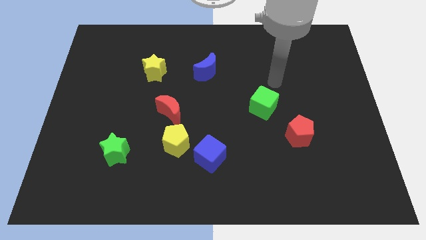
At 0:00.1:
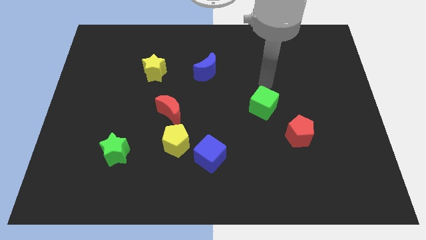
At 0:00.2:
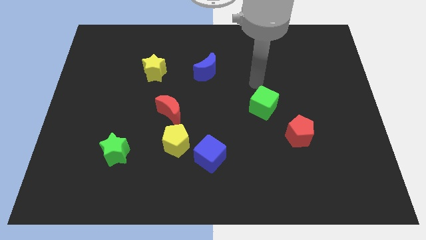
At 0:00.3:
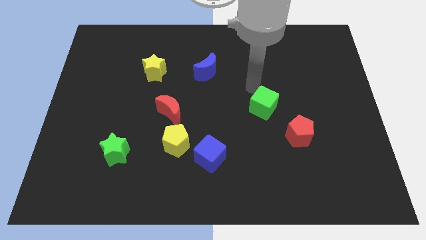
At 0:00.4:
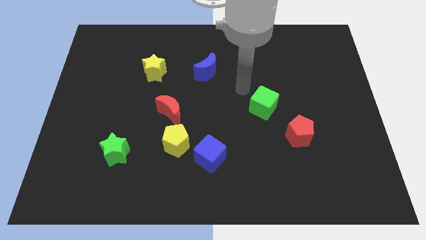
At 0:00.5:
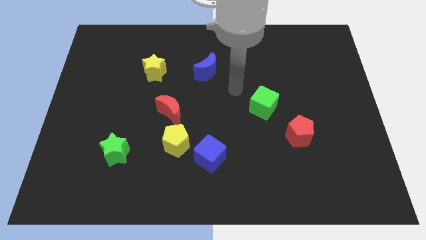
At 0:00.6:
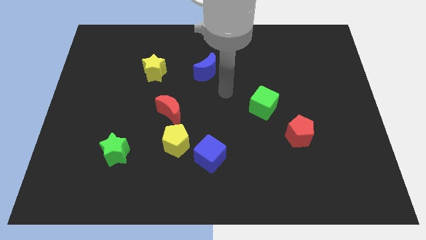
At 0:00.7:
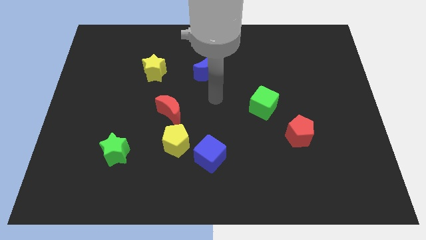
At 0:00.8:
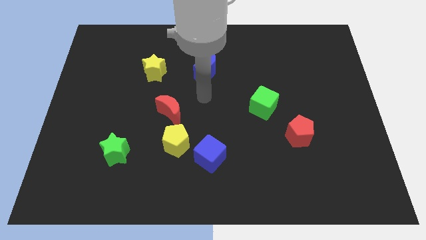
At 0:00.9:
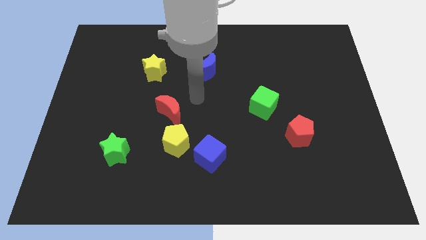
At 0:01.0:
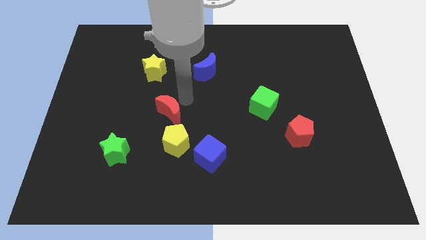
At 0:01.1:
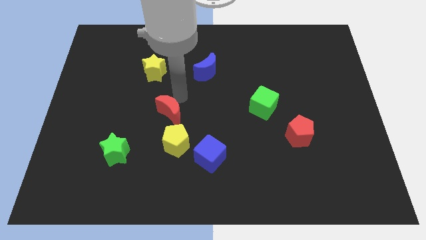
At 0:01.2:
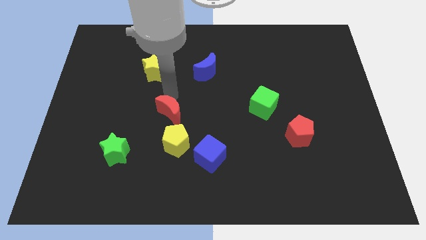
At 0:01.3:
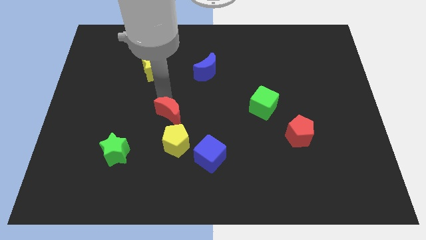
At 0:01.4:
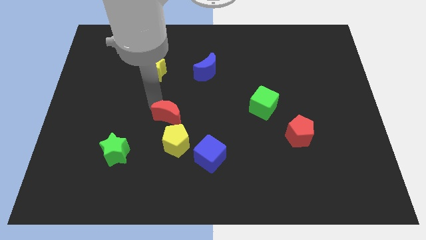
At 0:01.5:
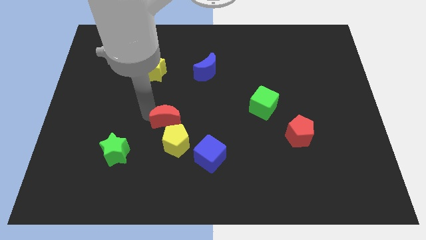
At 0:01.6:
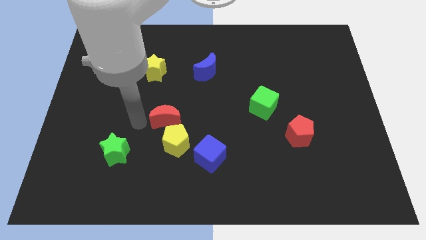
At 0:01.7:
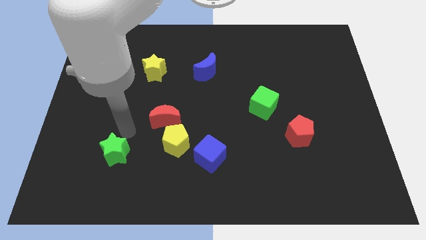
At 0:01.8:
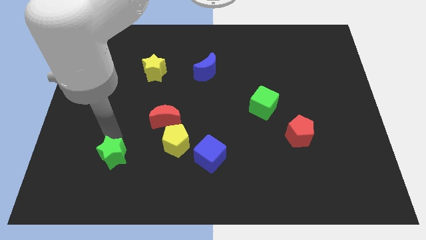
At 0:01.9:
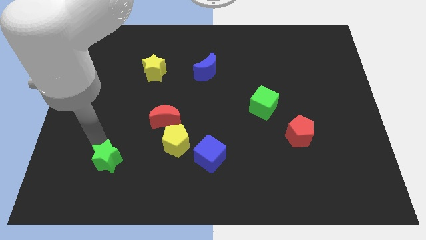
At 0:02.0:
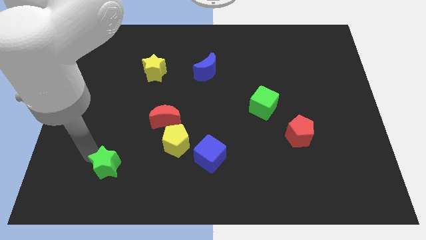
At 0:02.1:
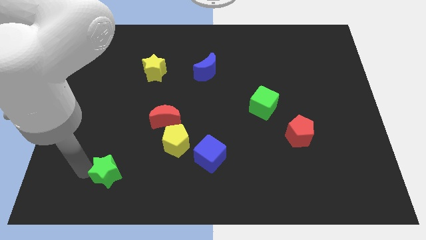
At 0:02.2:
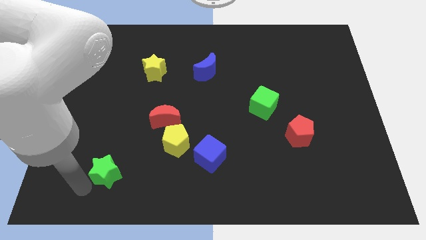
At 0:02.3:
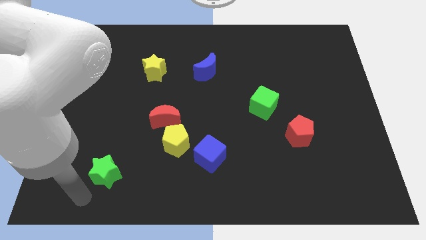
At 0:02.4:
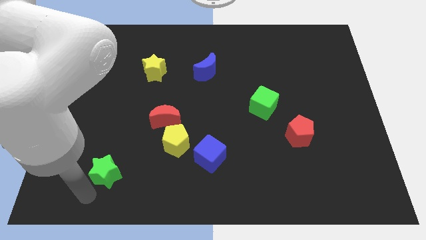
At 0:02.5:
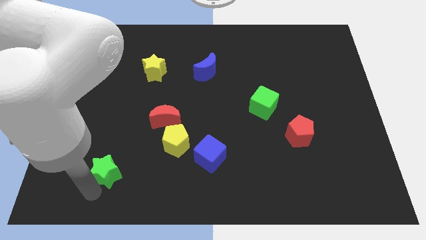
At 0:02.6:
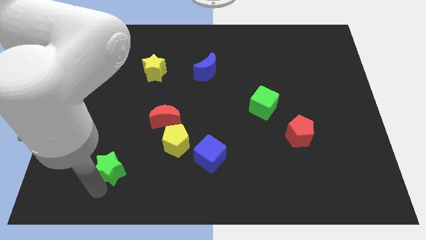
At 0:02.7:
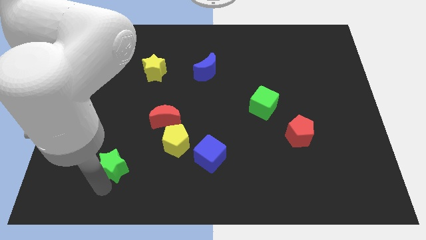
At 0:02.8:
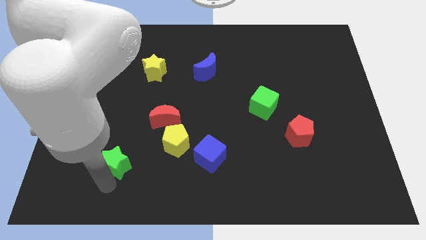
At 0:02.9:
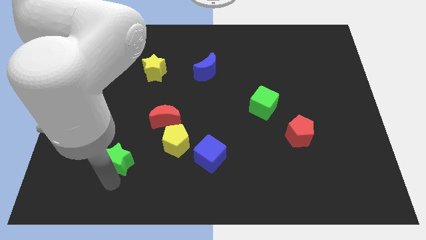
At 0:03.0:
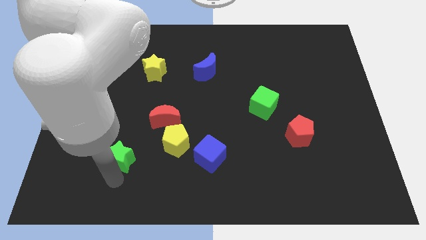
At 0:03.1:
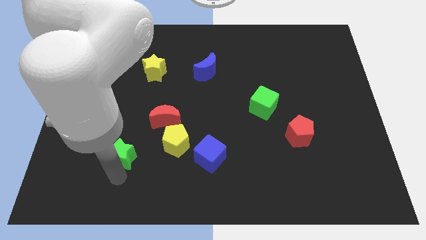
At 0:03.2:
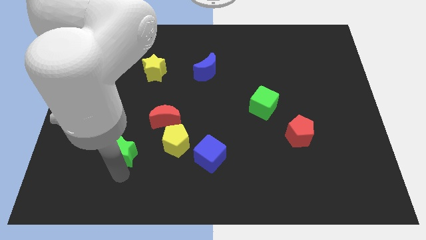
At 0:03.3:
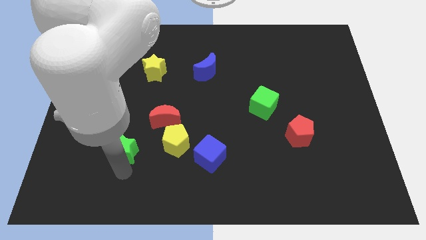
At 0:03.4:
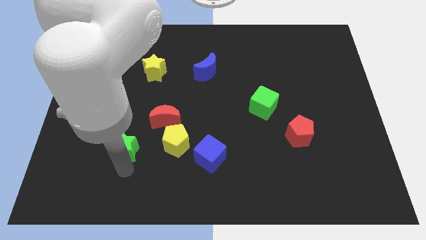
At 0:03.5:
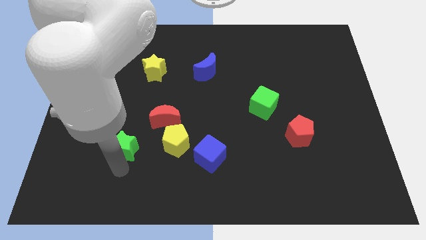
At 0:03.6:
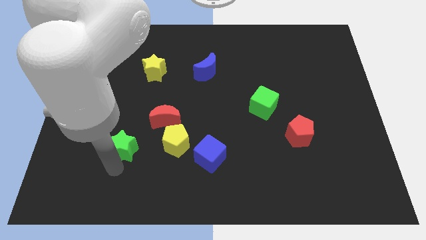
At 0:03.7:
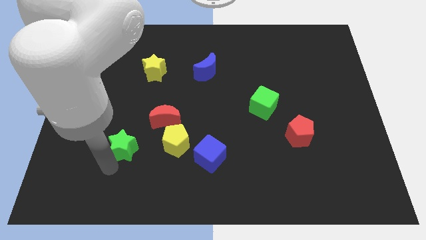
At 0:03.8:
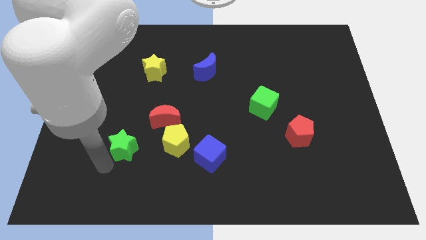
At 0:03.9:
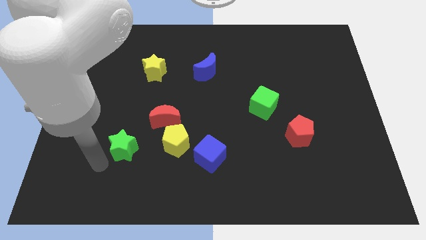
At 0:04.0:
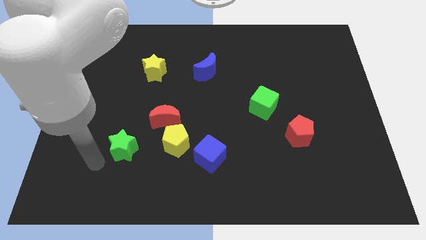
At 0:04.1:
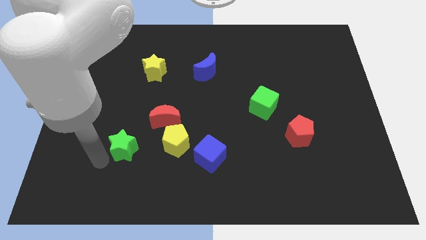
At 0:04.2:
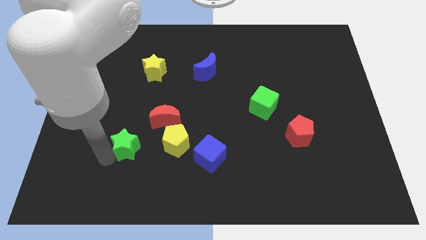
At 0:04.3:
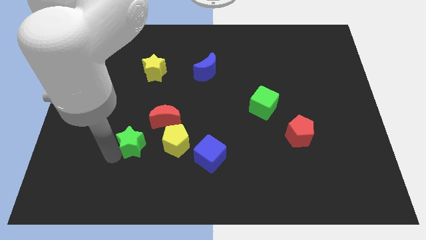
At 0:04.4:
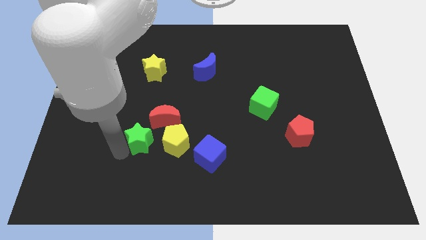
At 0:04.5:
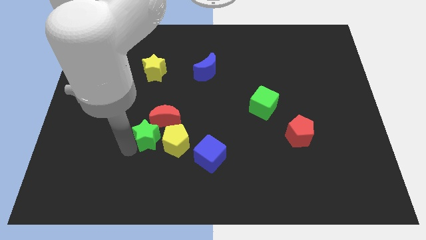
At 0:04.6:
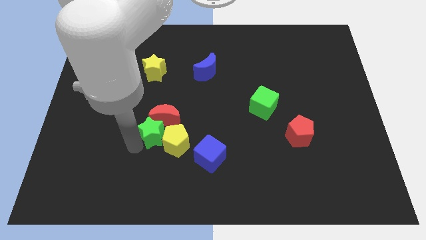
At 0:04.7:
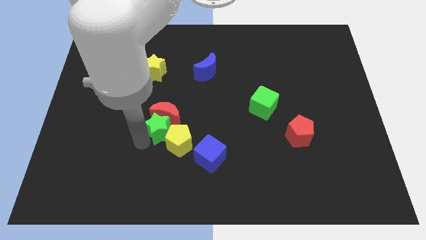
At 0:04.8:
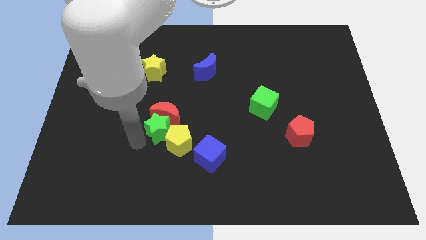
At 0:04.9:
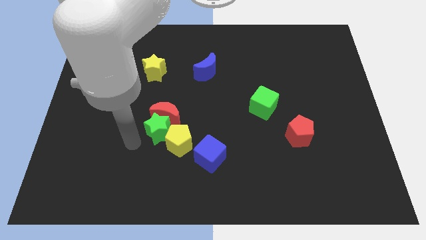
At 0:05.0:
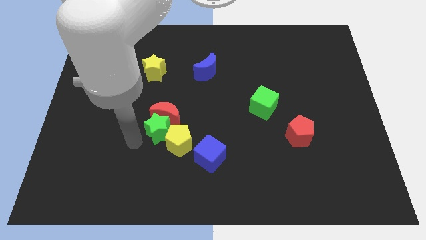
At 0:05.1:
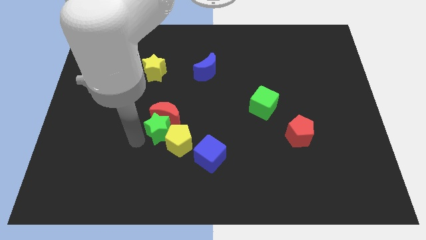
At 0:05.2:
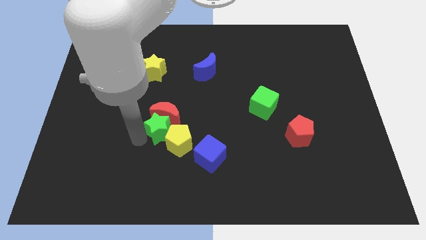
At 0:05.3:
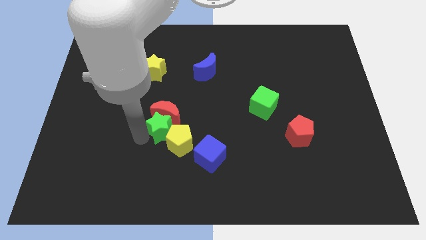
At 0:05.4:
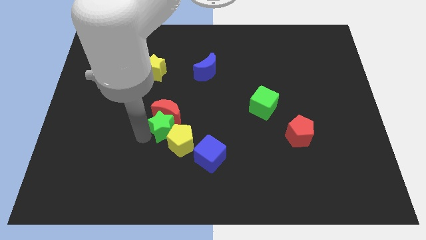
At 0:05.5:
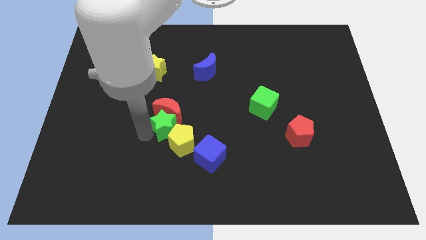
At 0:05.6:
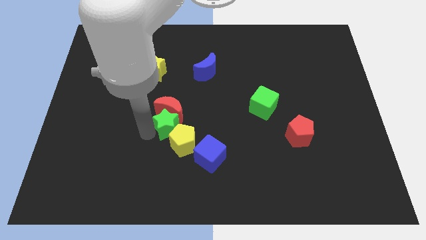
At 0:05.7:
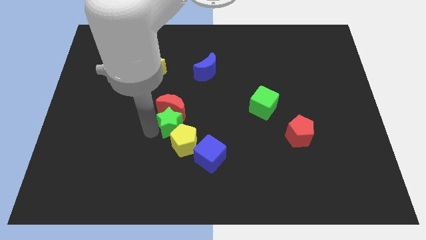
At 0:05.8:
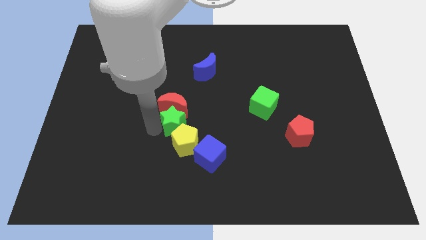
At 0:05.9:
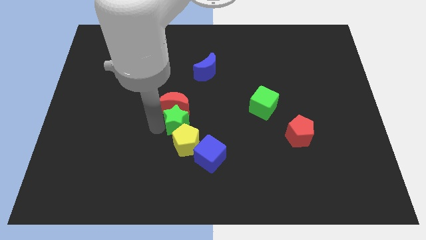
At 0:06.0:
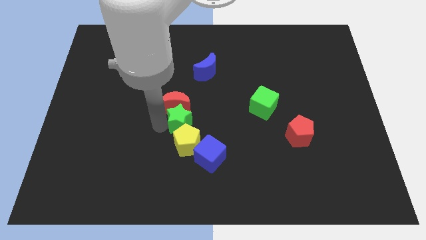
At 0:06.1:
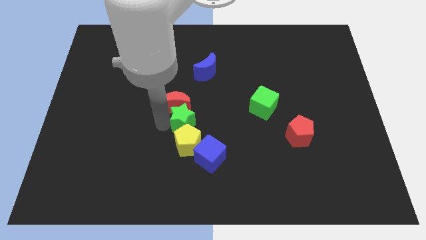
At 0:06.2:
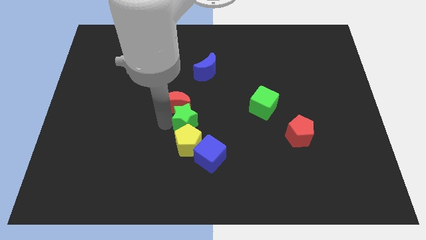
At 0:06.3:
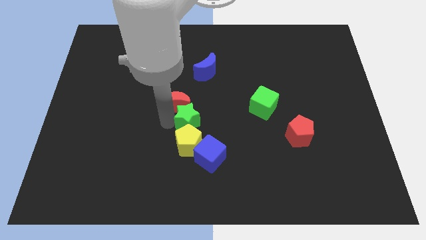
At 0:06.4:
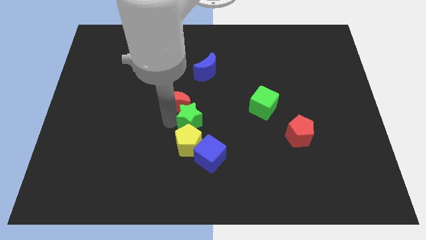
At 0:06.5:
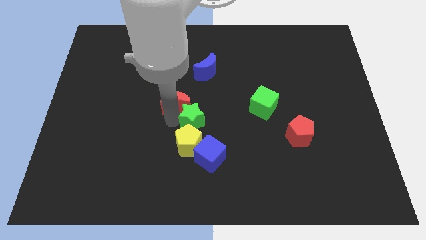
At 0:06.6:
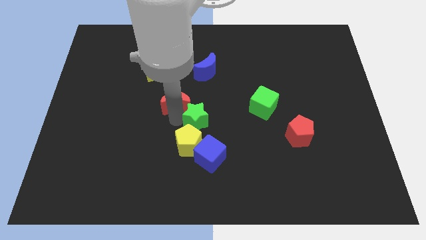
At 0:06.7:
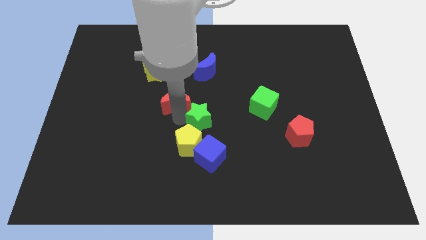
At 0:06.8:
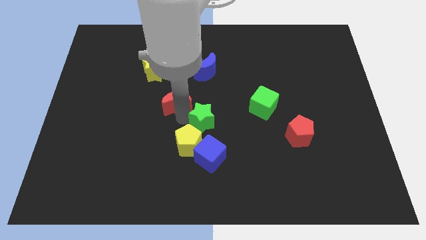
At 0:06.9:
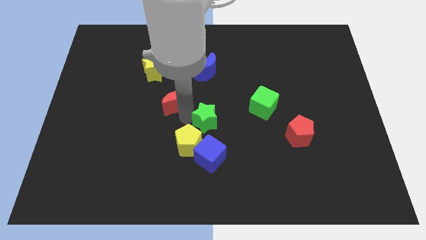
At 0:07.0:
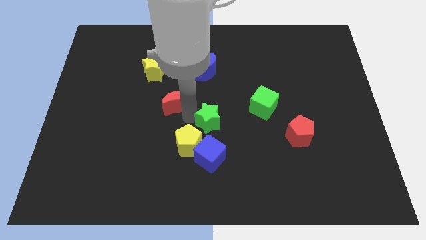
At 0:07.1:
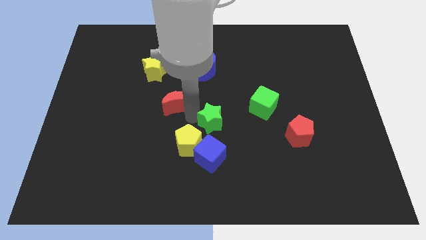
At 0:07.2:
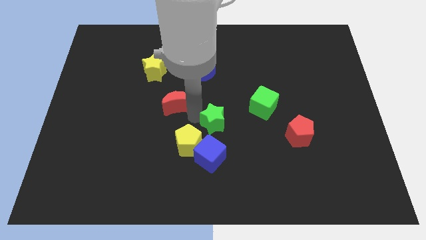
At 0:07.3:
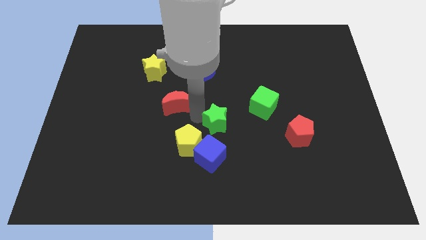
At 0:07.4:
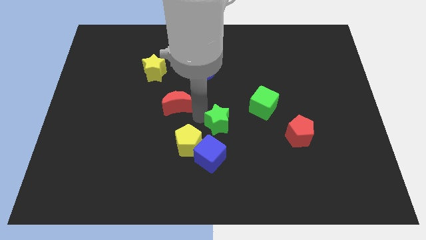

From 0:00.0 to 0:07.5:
slide the green star right
